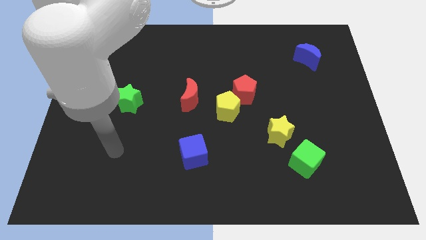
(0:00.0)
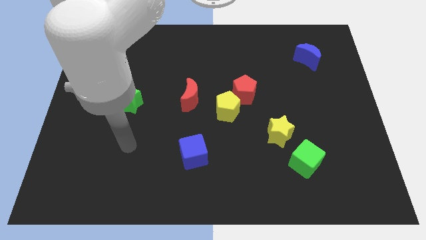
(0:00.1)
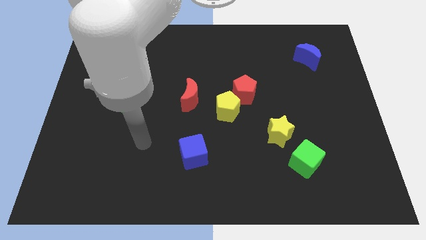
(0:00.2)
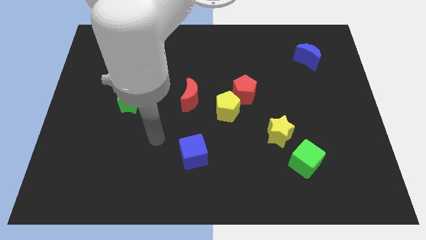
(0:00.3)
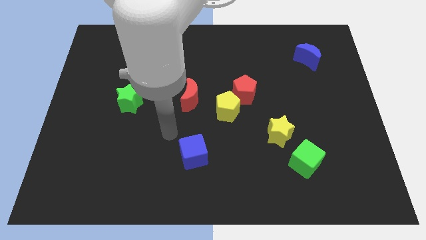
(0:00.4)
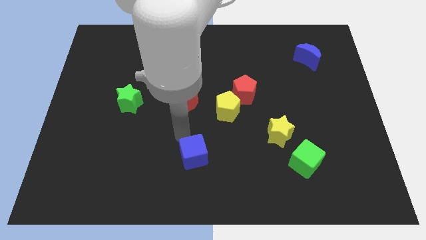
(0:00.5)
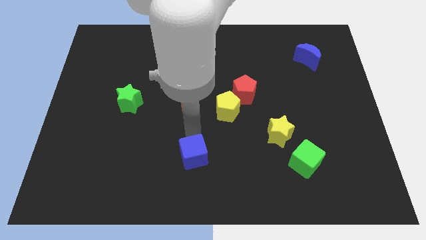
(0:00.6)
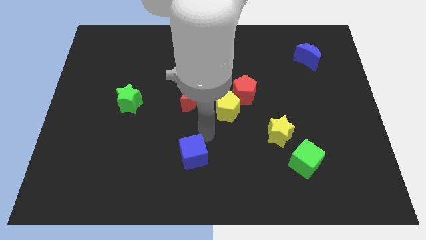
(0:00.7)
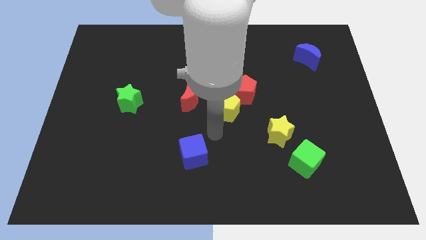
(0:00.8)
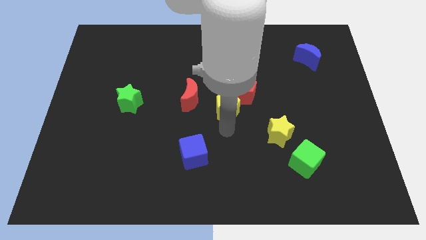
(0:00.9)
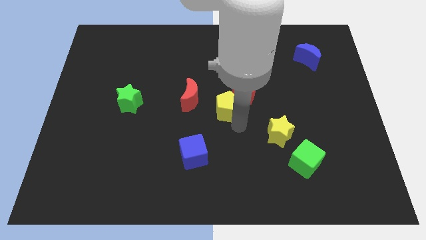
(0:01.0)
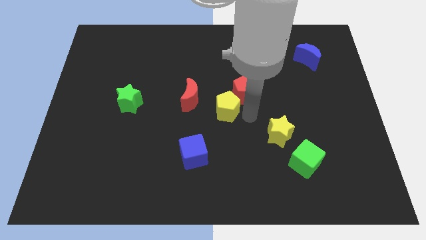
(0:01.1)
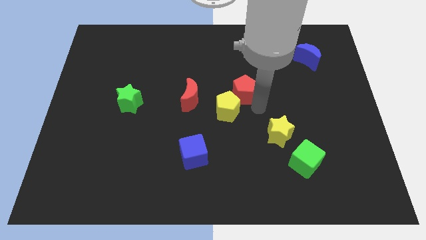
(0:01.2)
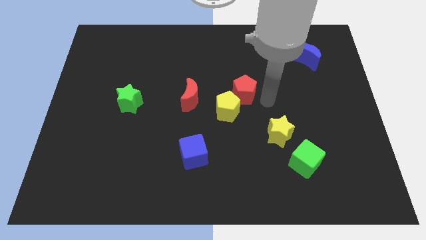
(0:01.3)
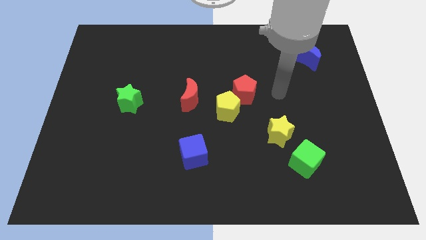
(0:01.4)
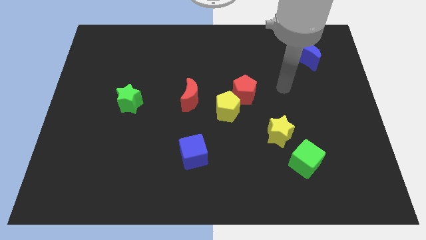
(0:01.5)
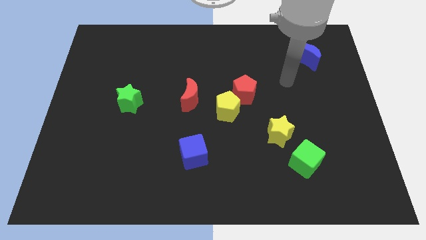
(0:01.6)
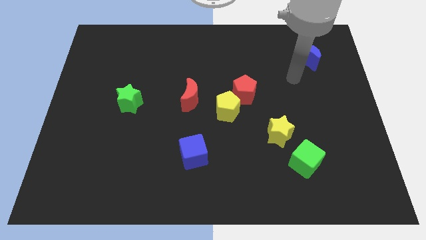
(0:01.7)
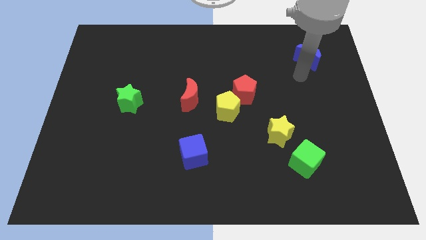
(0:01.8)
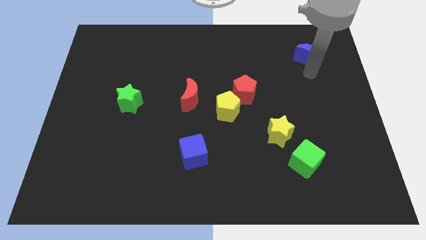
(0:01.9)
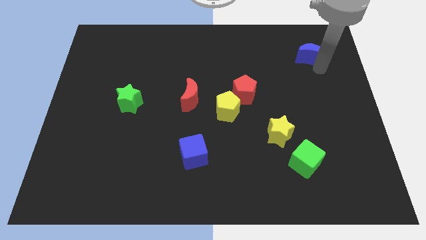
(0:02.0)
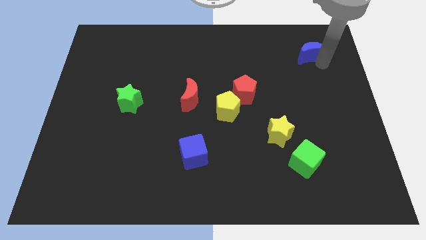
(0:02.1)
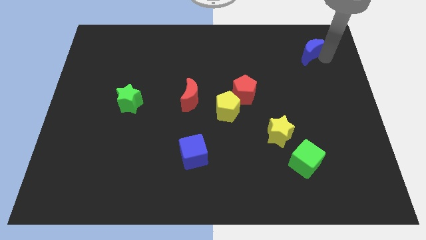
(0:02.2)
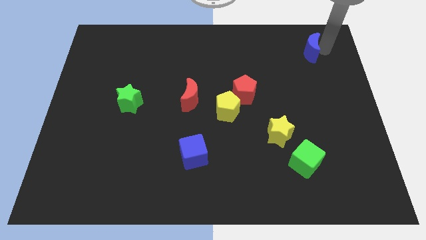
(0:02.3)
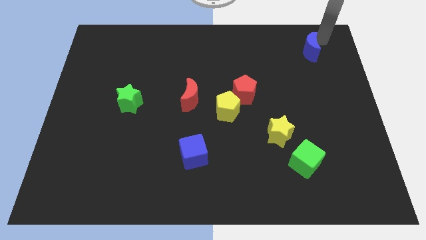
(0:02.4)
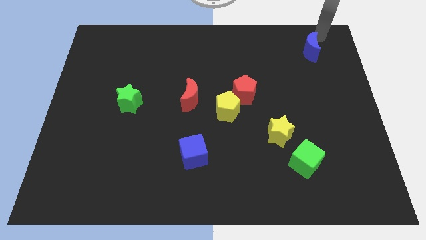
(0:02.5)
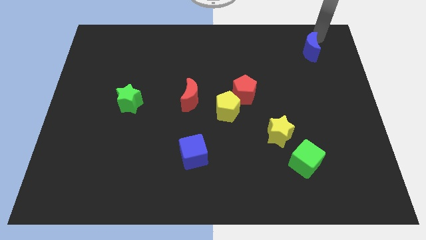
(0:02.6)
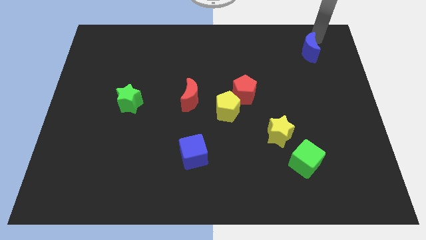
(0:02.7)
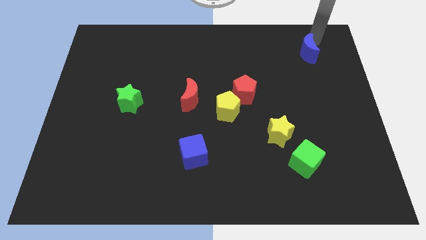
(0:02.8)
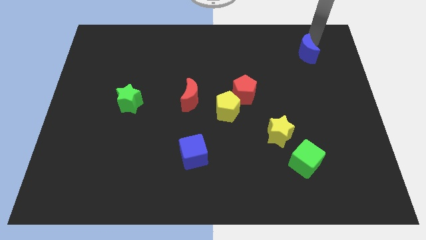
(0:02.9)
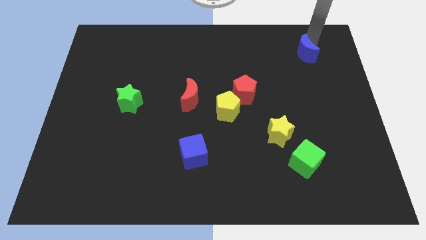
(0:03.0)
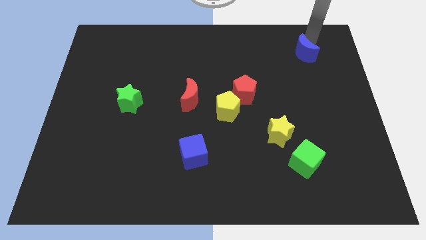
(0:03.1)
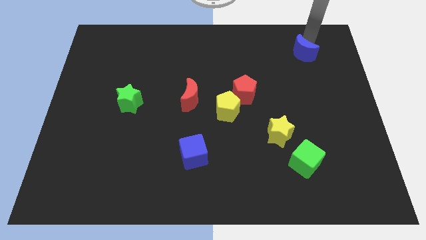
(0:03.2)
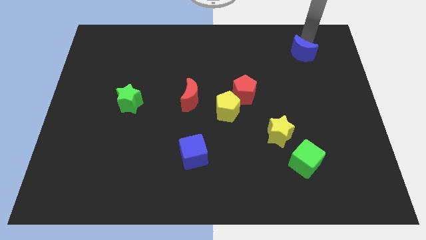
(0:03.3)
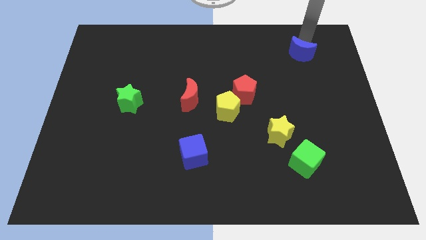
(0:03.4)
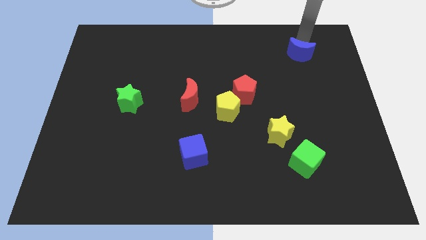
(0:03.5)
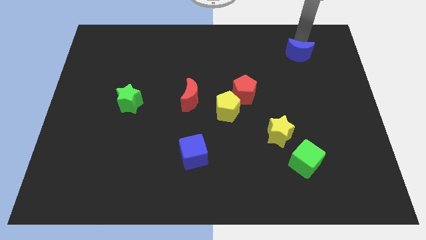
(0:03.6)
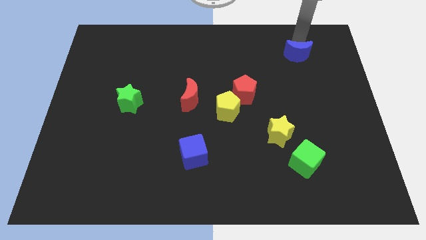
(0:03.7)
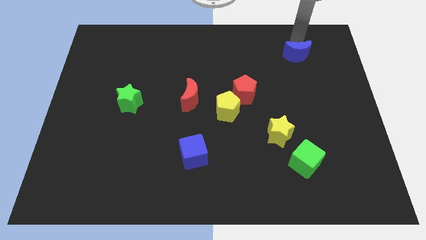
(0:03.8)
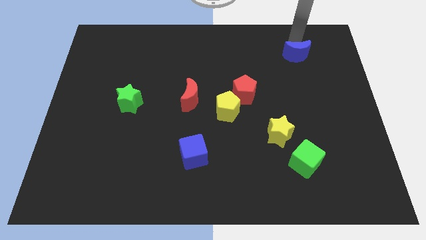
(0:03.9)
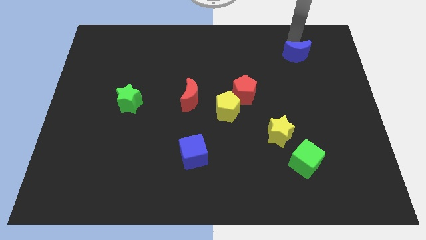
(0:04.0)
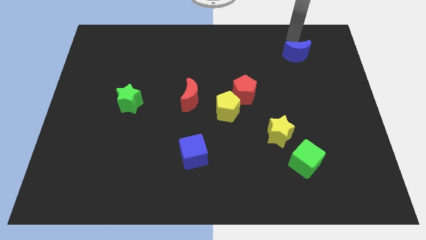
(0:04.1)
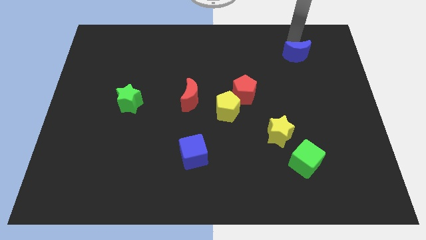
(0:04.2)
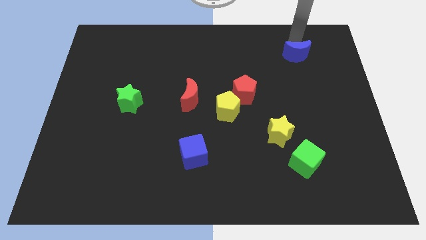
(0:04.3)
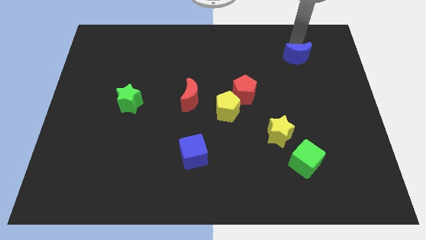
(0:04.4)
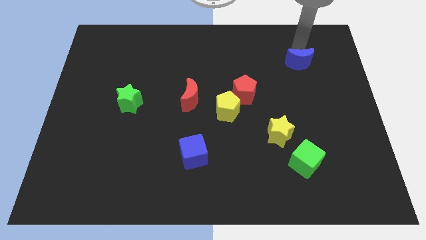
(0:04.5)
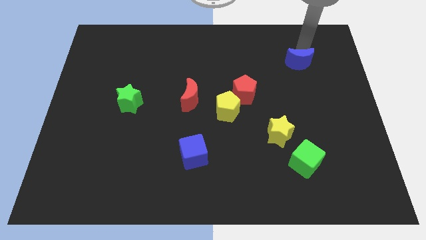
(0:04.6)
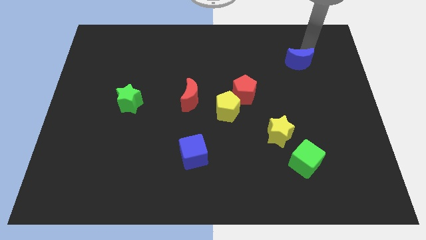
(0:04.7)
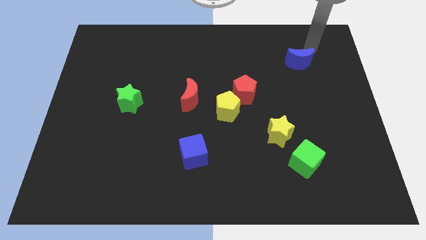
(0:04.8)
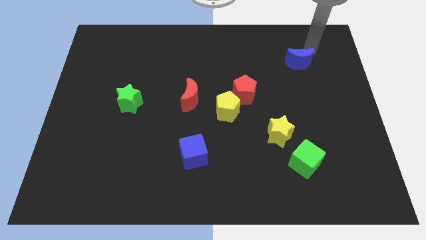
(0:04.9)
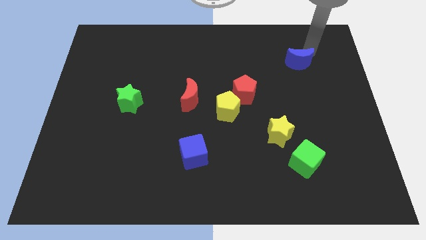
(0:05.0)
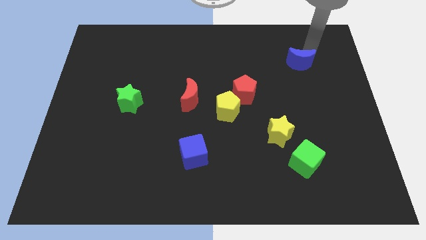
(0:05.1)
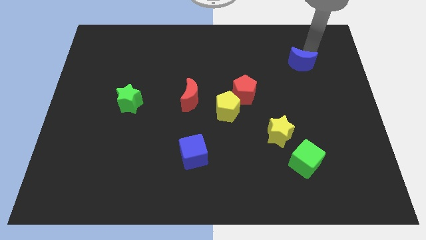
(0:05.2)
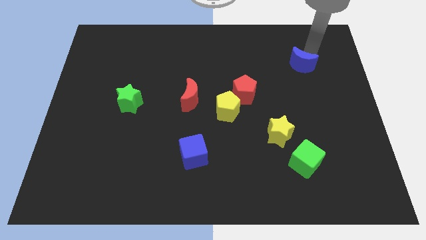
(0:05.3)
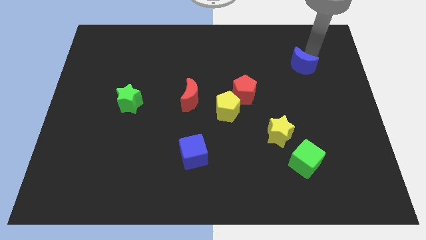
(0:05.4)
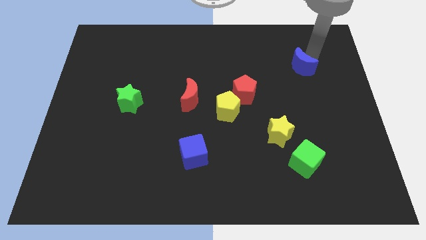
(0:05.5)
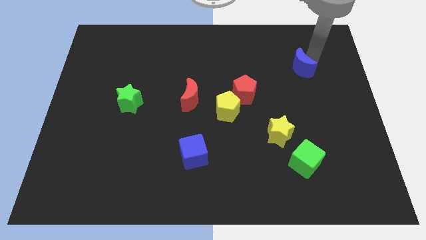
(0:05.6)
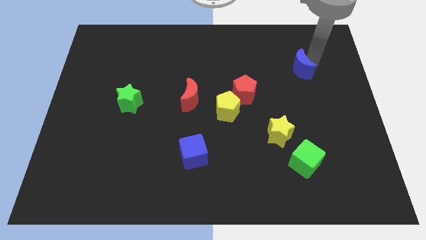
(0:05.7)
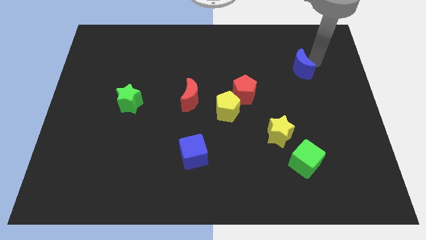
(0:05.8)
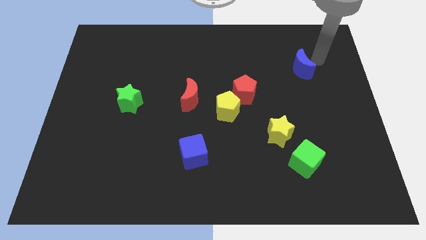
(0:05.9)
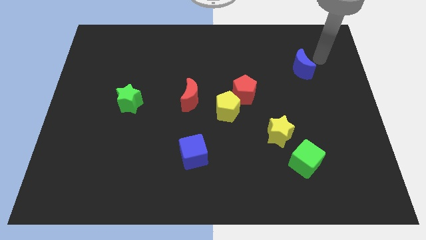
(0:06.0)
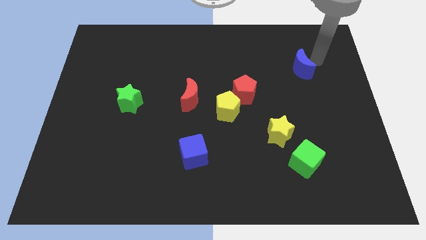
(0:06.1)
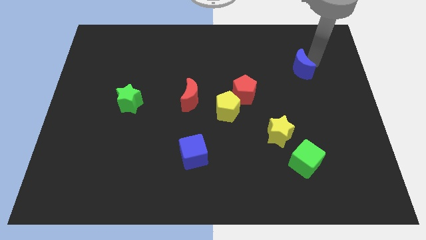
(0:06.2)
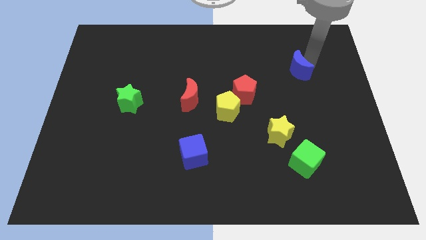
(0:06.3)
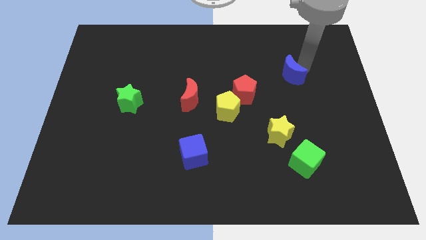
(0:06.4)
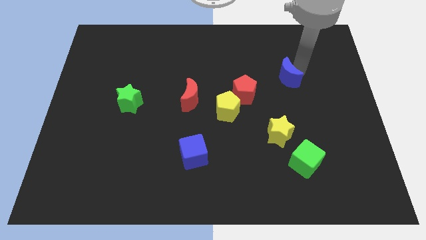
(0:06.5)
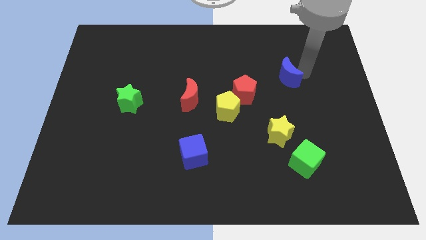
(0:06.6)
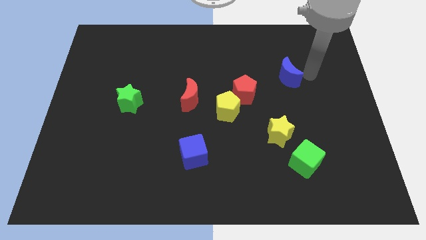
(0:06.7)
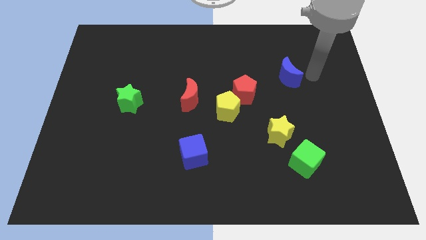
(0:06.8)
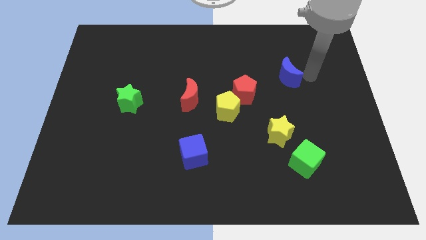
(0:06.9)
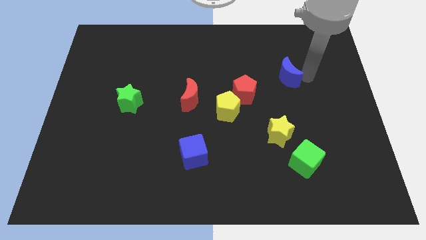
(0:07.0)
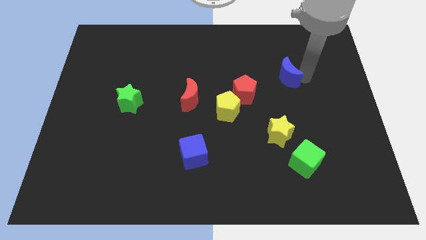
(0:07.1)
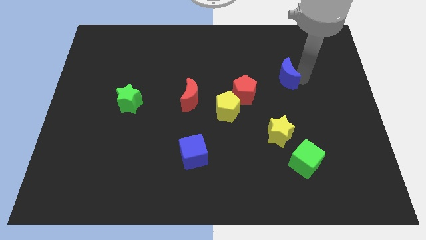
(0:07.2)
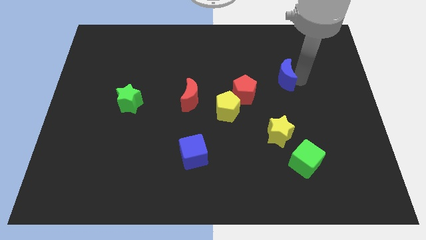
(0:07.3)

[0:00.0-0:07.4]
move the blue moon to the top right of the red pentagon
